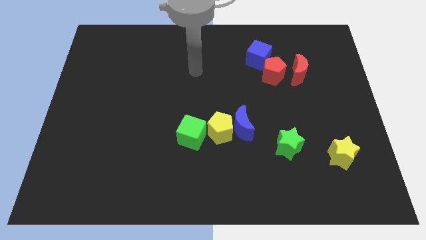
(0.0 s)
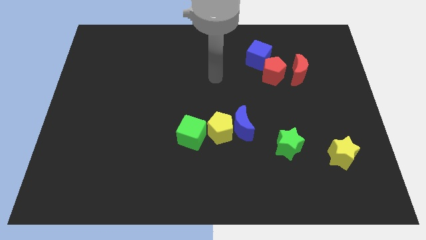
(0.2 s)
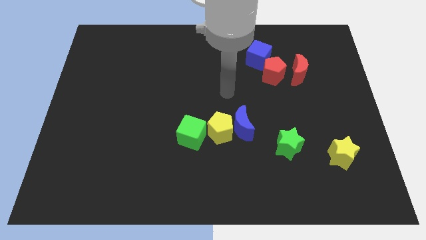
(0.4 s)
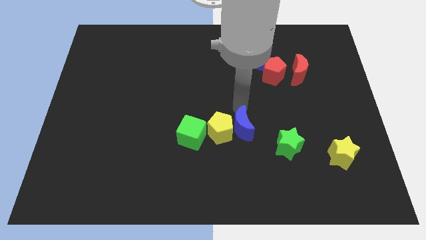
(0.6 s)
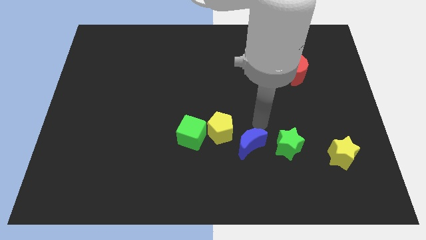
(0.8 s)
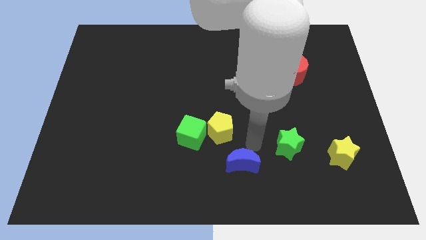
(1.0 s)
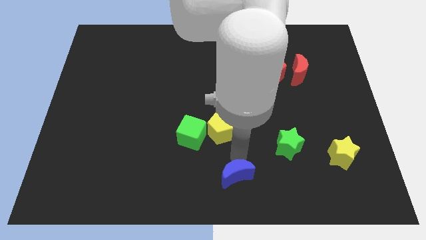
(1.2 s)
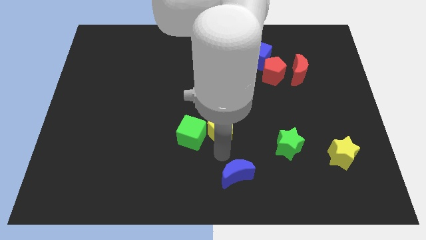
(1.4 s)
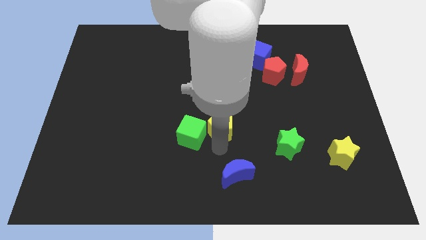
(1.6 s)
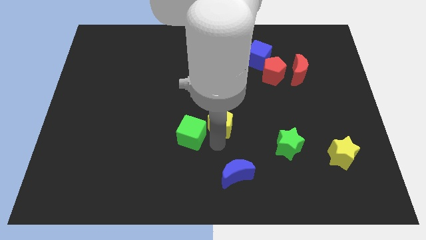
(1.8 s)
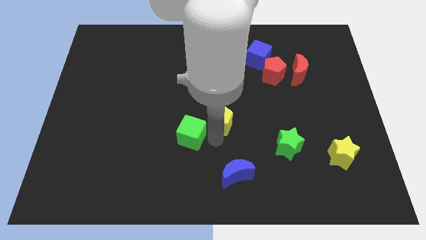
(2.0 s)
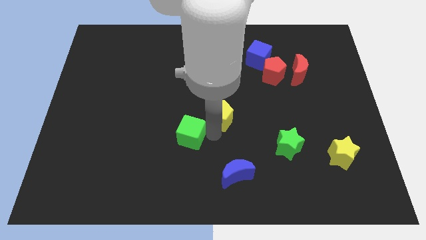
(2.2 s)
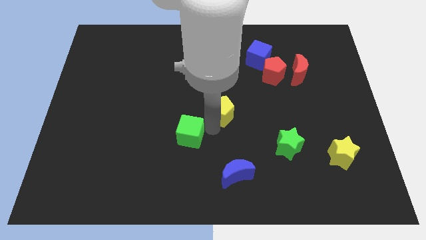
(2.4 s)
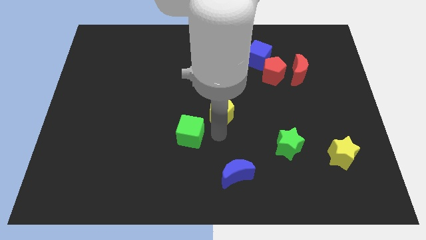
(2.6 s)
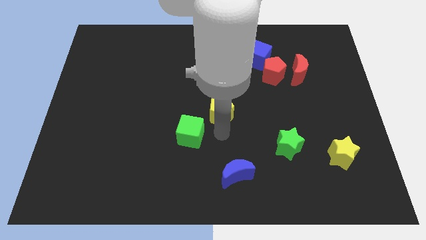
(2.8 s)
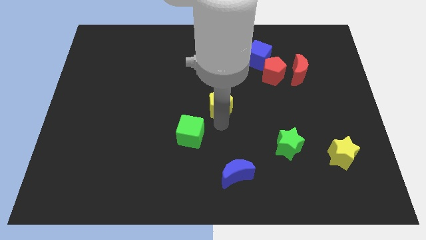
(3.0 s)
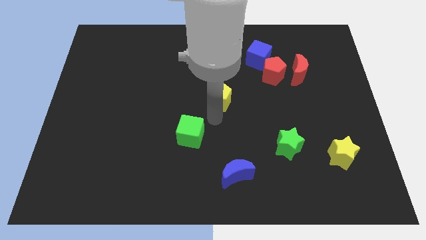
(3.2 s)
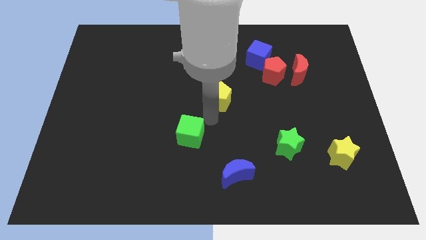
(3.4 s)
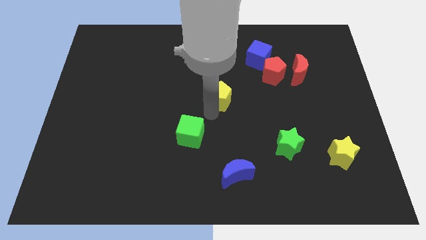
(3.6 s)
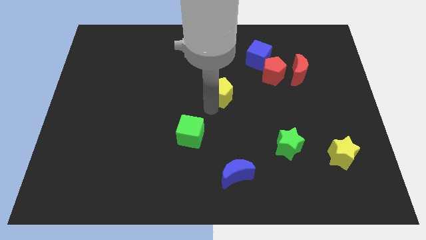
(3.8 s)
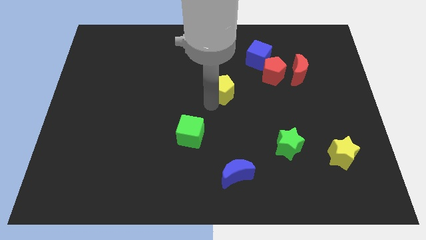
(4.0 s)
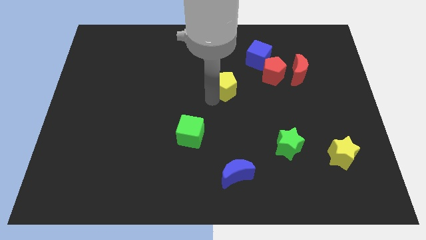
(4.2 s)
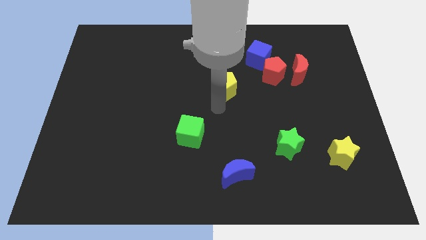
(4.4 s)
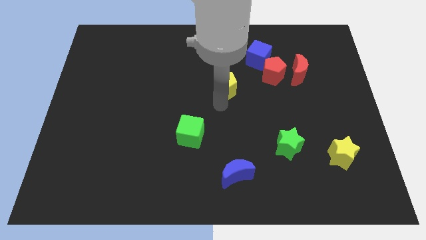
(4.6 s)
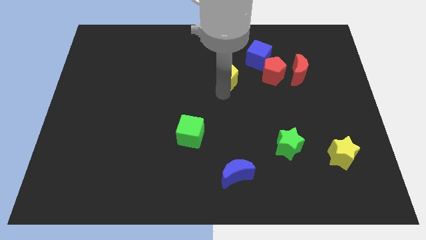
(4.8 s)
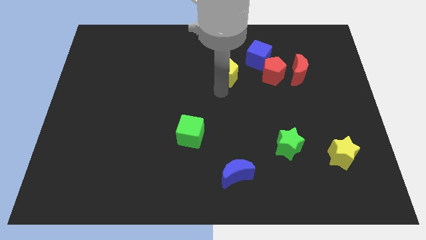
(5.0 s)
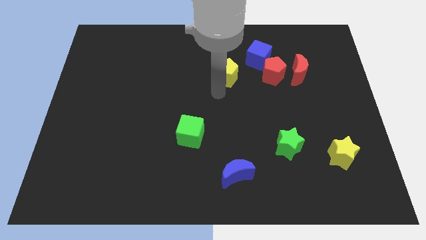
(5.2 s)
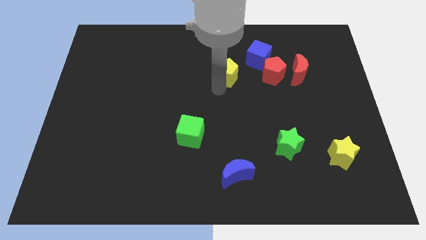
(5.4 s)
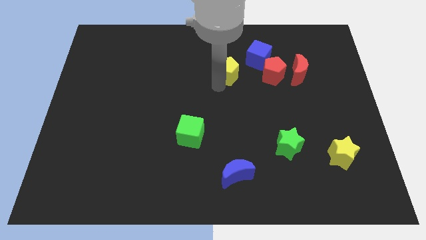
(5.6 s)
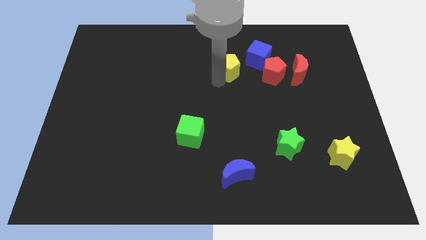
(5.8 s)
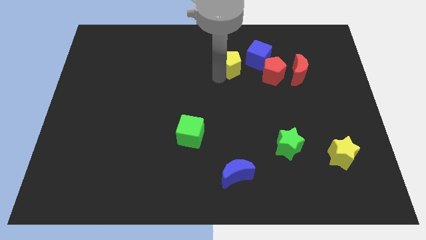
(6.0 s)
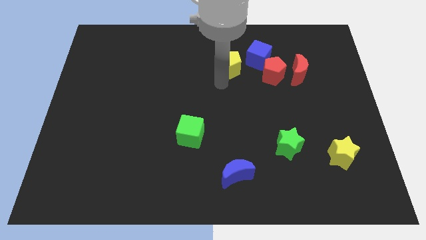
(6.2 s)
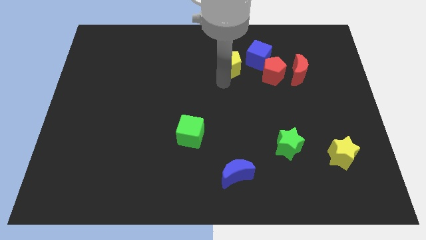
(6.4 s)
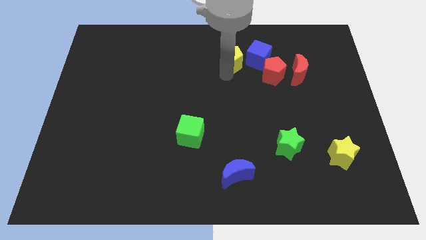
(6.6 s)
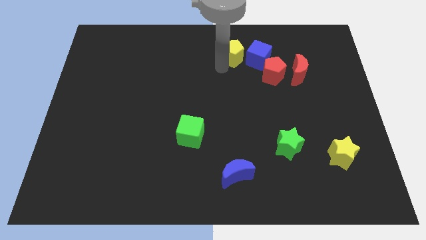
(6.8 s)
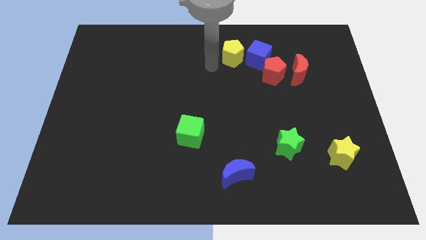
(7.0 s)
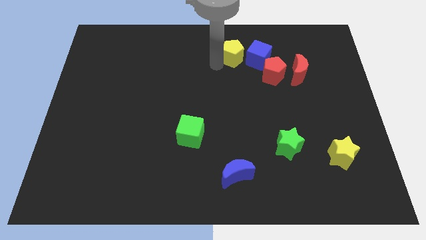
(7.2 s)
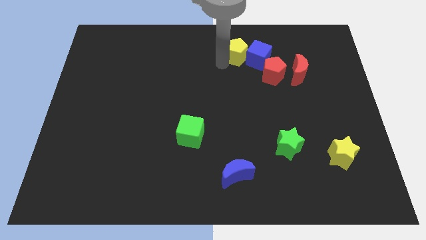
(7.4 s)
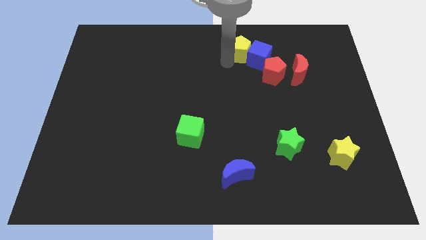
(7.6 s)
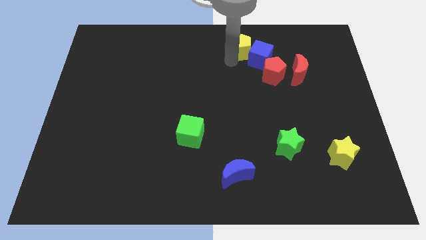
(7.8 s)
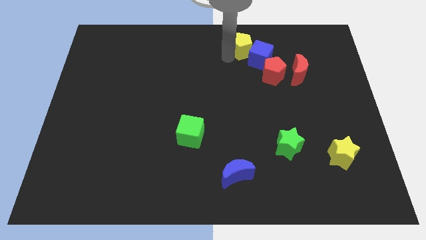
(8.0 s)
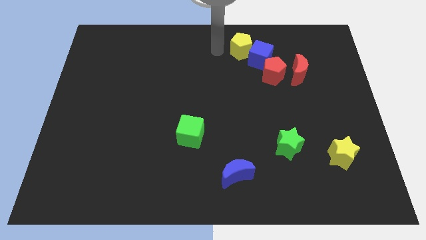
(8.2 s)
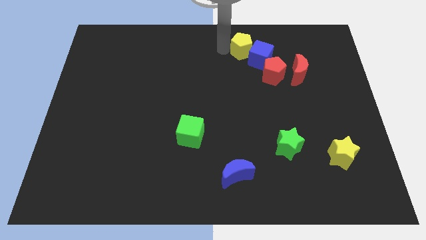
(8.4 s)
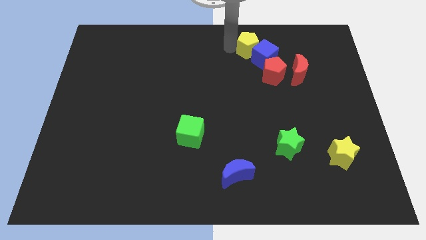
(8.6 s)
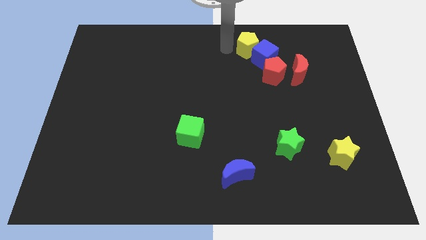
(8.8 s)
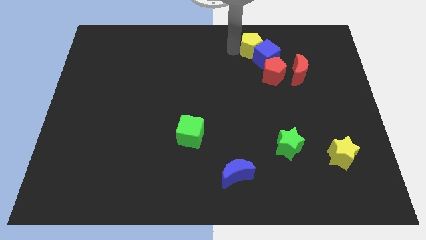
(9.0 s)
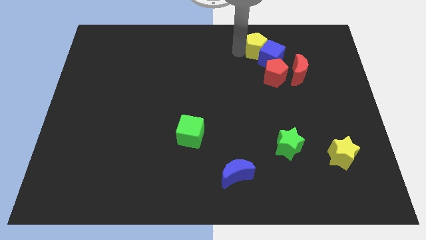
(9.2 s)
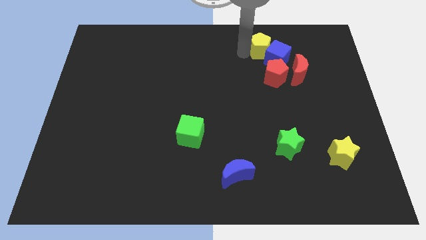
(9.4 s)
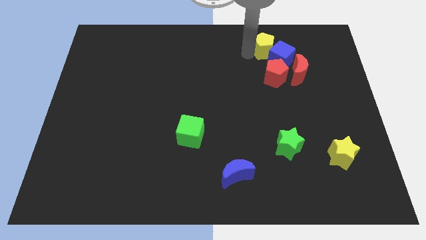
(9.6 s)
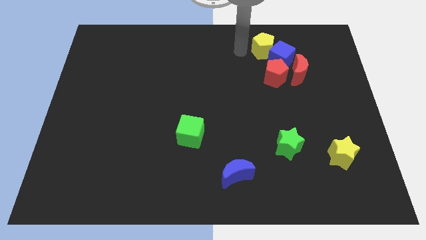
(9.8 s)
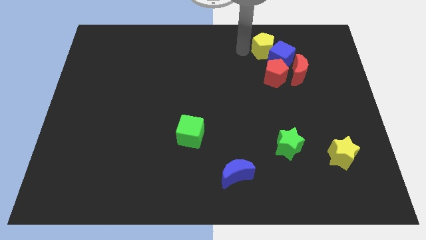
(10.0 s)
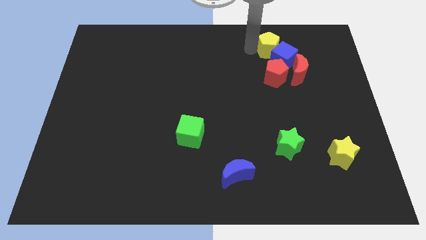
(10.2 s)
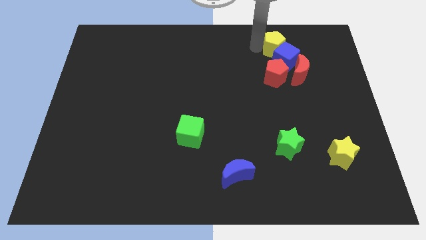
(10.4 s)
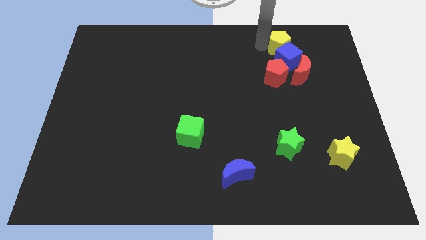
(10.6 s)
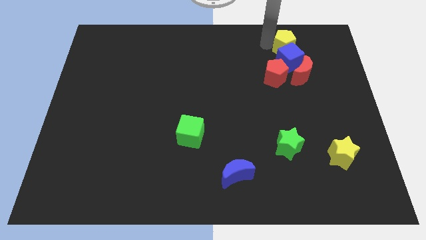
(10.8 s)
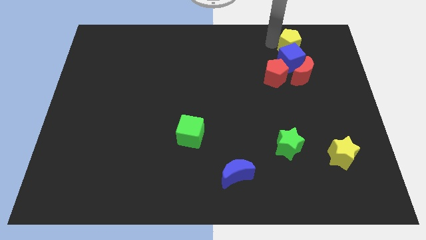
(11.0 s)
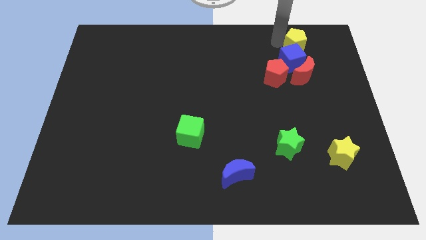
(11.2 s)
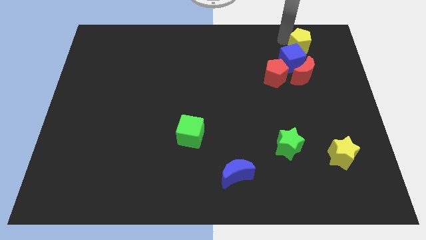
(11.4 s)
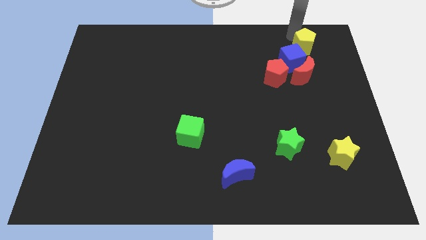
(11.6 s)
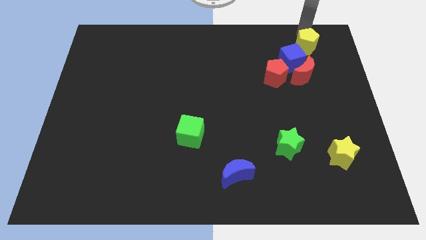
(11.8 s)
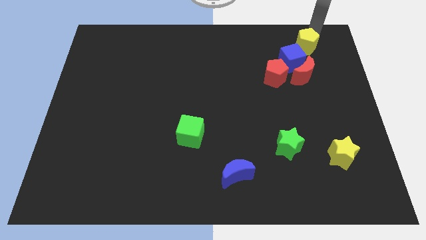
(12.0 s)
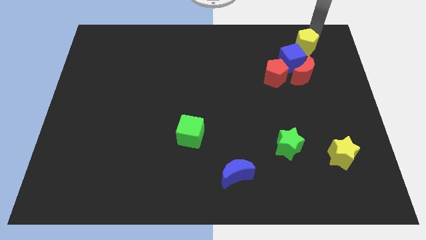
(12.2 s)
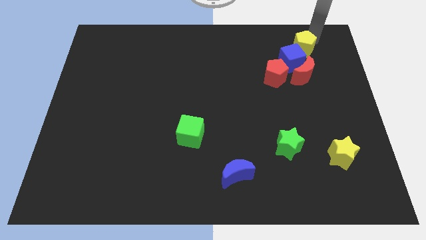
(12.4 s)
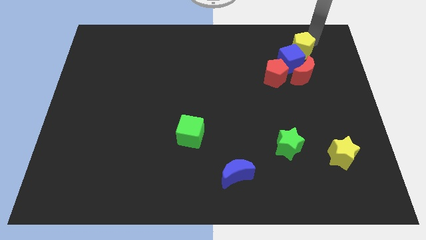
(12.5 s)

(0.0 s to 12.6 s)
move the yellow pentagon to the top right of the red pentagon

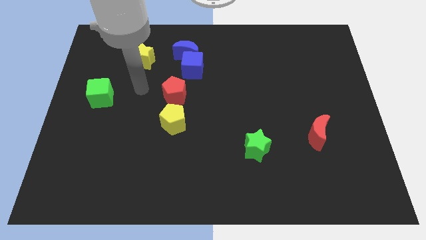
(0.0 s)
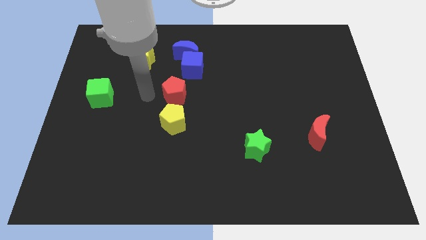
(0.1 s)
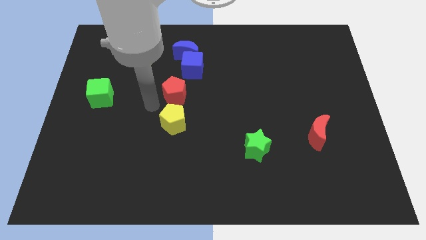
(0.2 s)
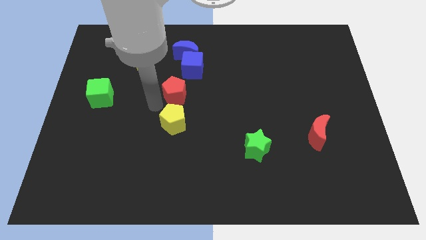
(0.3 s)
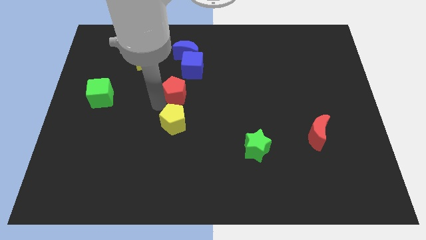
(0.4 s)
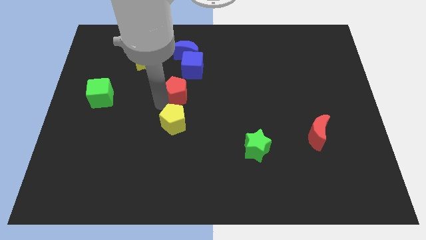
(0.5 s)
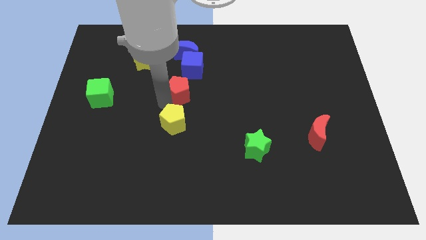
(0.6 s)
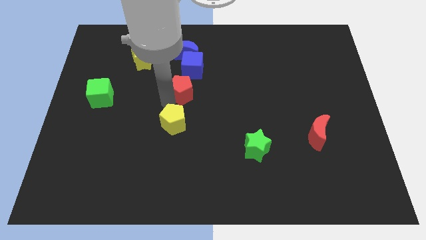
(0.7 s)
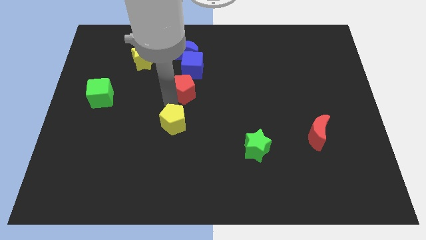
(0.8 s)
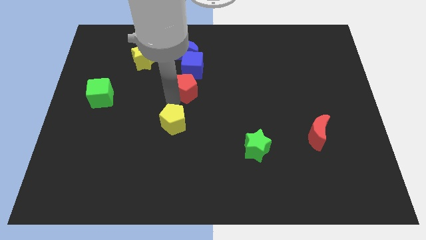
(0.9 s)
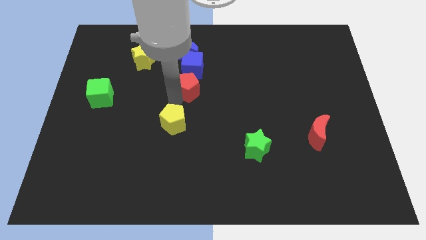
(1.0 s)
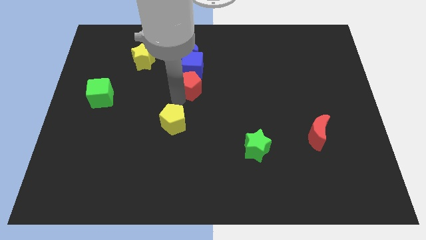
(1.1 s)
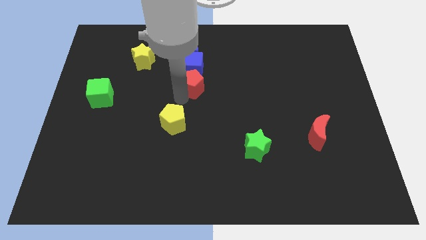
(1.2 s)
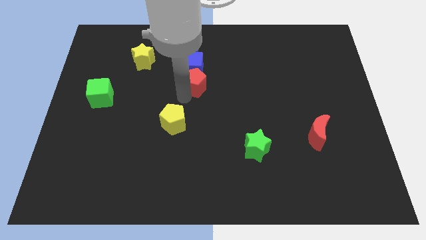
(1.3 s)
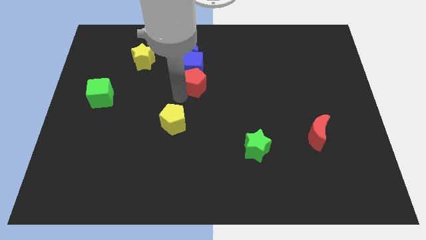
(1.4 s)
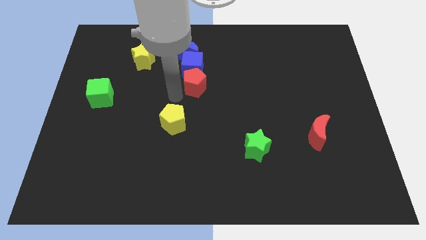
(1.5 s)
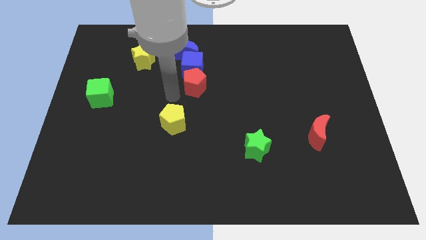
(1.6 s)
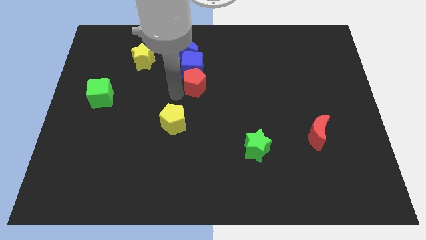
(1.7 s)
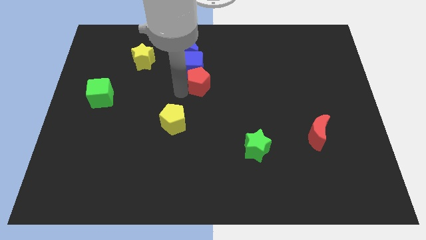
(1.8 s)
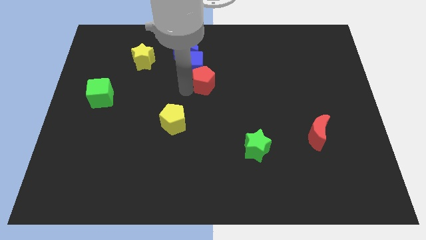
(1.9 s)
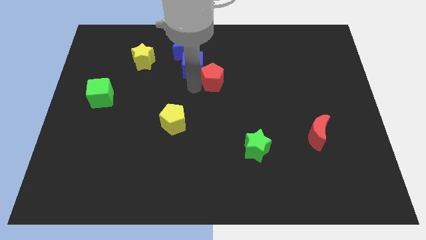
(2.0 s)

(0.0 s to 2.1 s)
slide the red pentagon right of the blue cube
